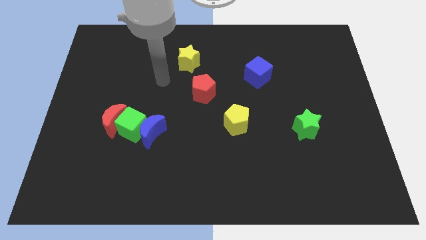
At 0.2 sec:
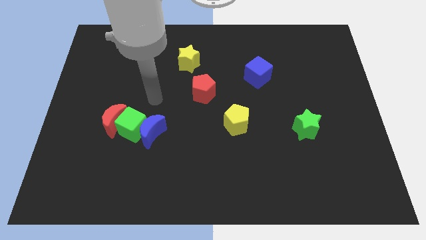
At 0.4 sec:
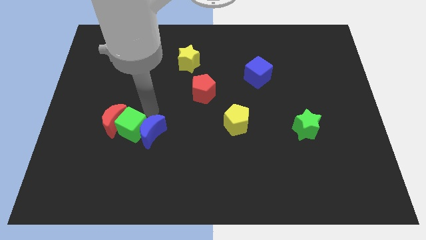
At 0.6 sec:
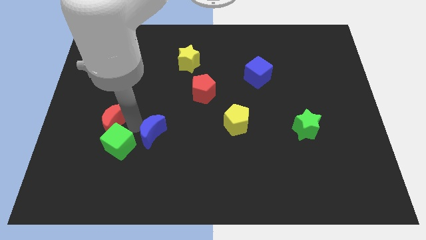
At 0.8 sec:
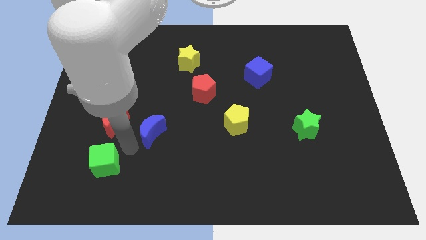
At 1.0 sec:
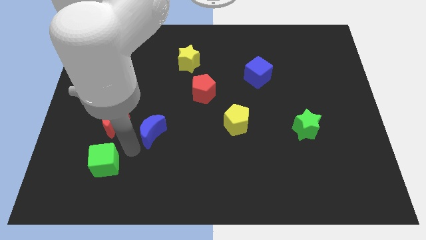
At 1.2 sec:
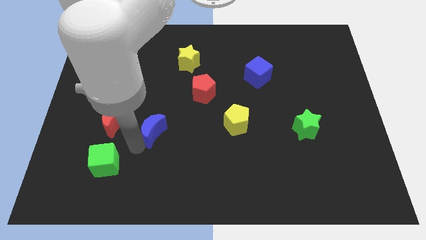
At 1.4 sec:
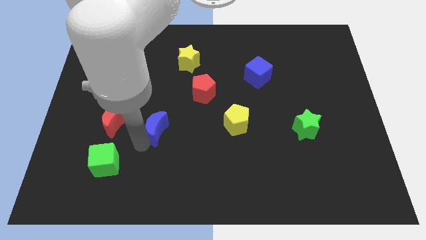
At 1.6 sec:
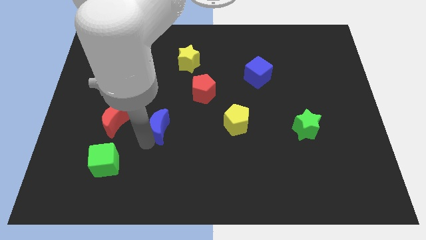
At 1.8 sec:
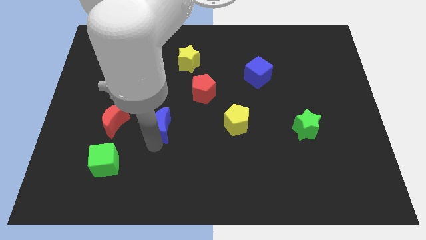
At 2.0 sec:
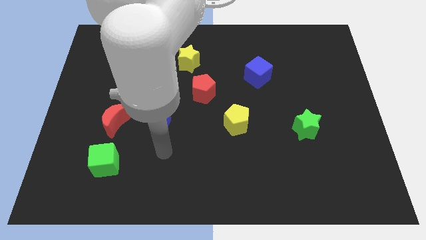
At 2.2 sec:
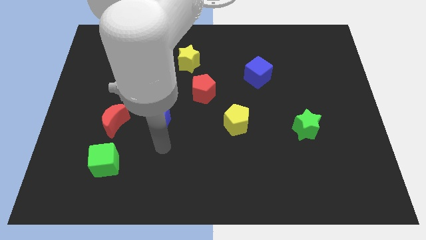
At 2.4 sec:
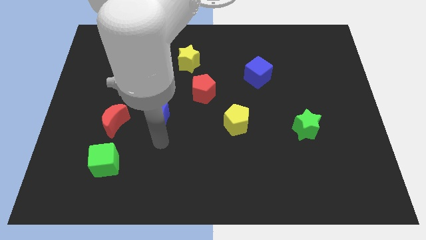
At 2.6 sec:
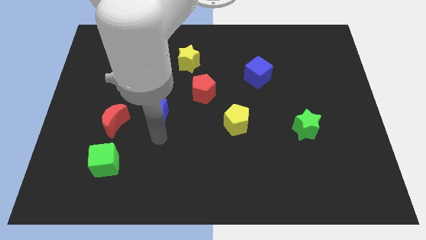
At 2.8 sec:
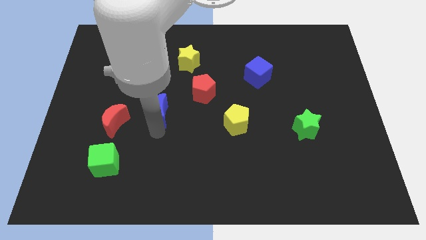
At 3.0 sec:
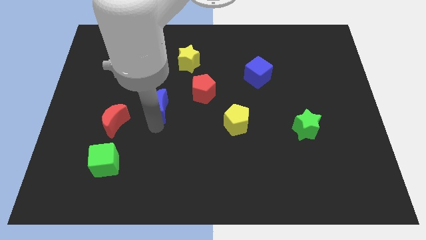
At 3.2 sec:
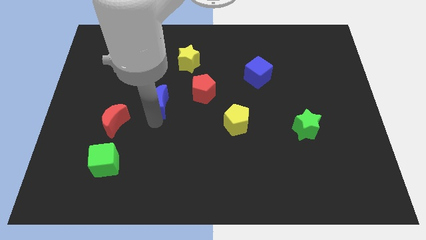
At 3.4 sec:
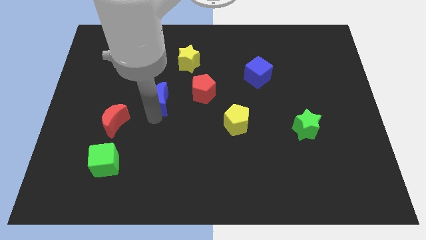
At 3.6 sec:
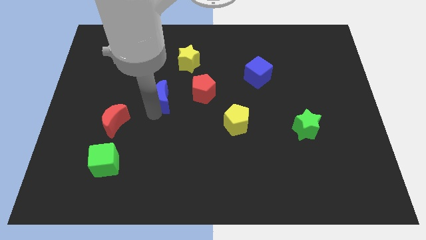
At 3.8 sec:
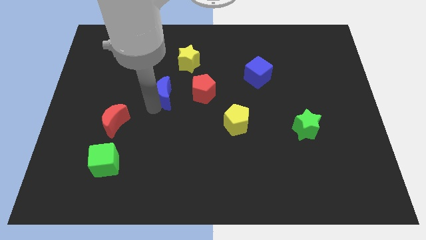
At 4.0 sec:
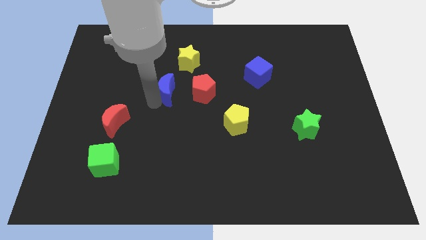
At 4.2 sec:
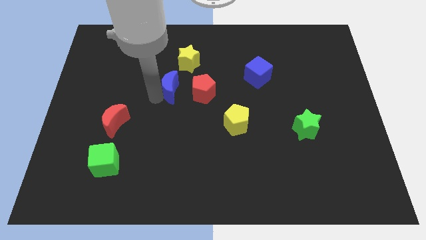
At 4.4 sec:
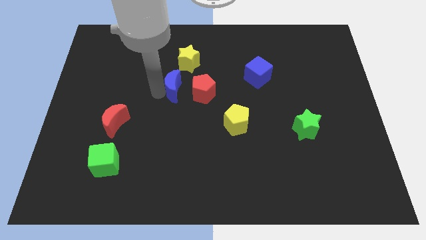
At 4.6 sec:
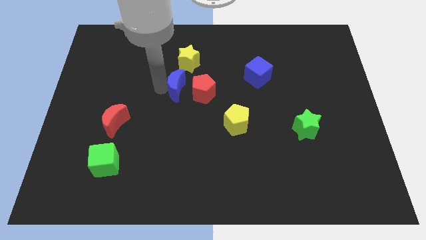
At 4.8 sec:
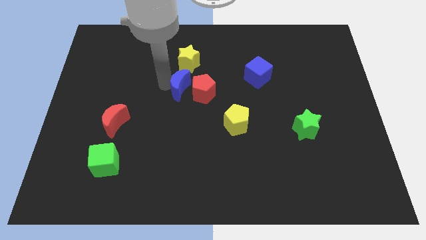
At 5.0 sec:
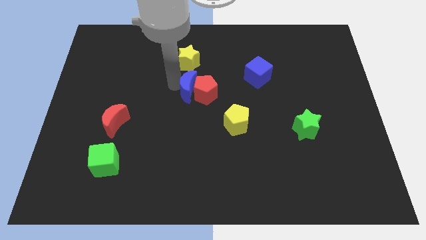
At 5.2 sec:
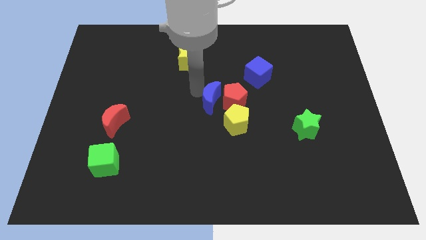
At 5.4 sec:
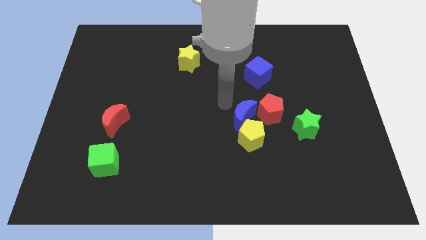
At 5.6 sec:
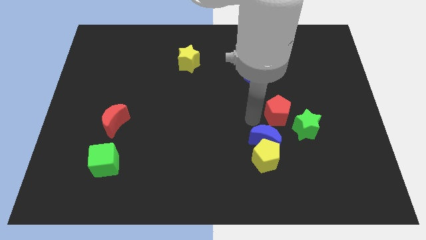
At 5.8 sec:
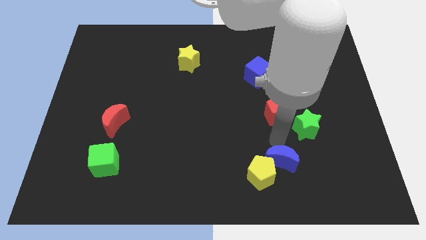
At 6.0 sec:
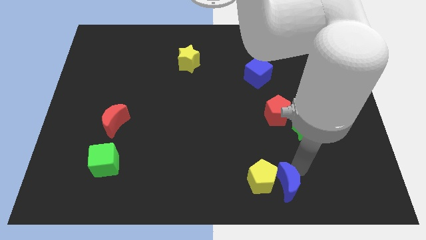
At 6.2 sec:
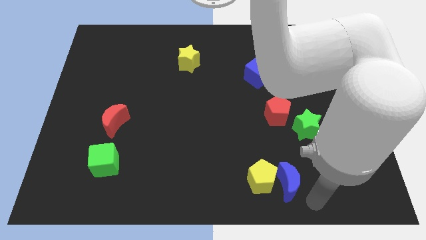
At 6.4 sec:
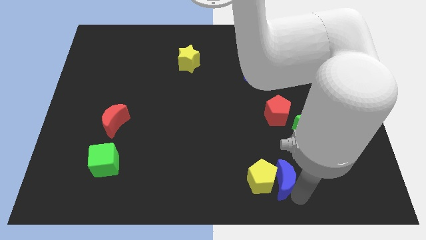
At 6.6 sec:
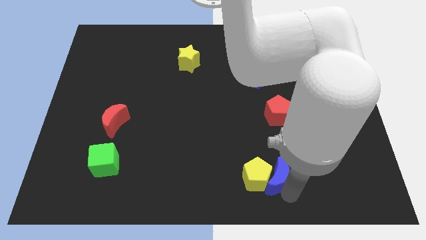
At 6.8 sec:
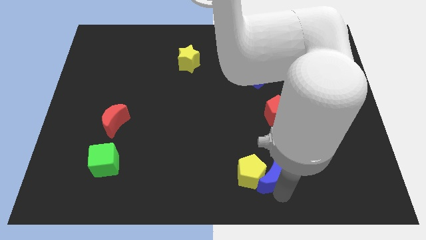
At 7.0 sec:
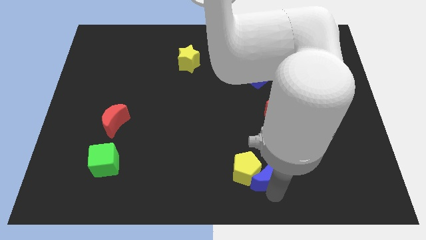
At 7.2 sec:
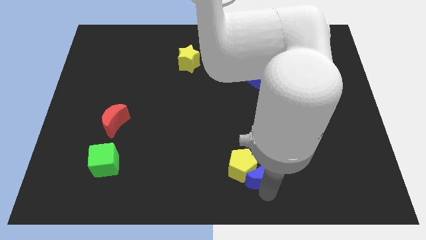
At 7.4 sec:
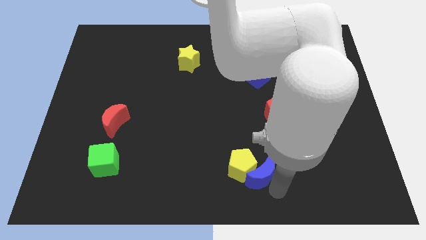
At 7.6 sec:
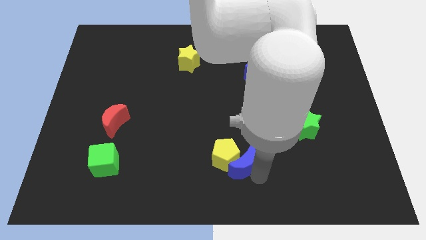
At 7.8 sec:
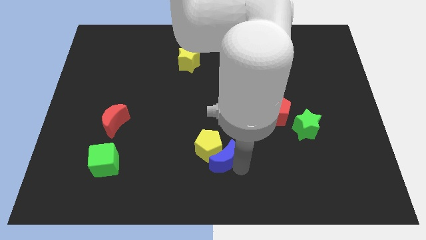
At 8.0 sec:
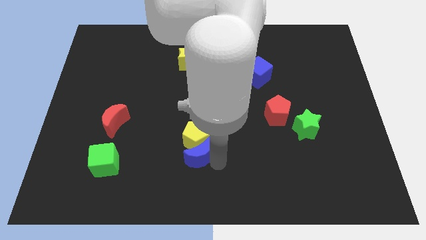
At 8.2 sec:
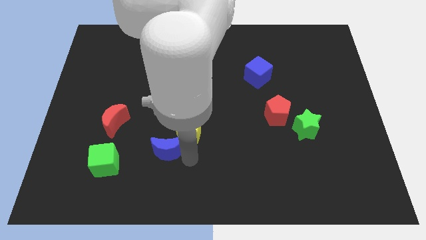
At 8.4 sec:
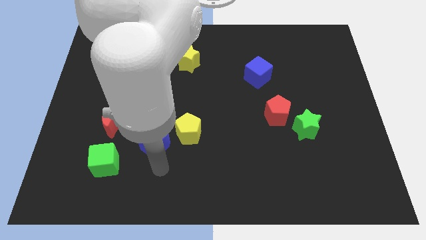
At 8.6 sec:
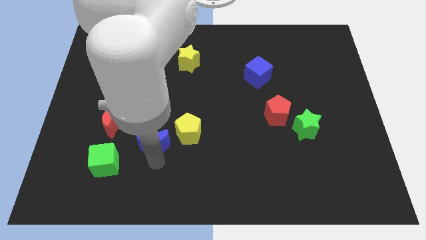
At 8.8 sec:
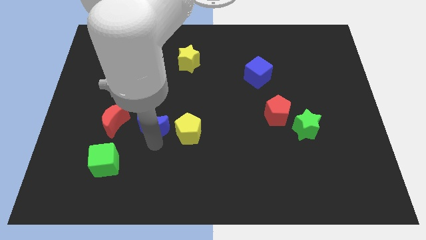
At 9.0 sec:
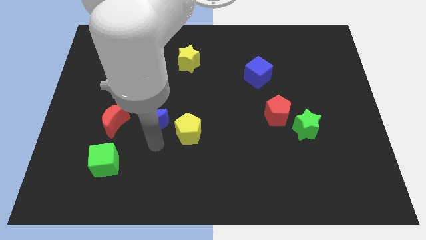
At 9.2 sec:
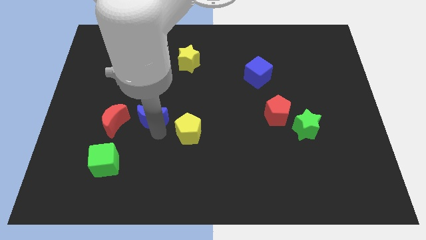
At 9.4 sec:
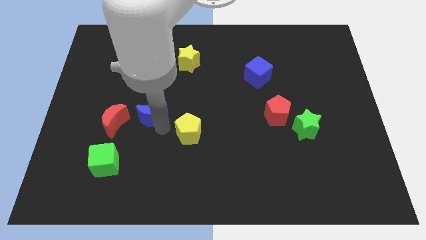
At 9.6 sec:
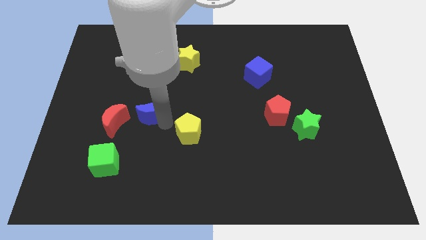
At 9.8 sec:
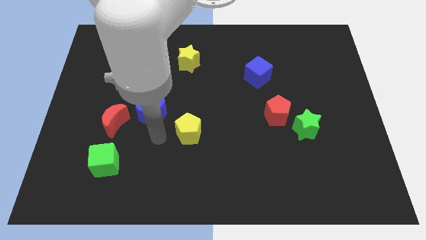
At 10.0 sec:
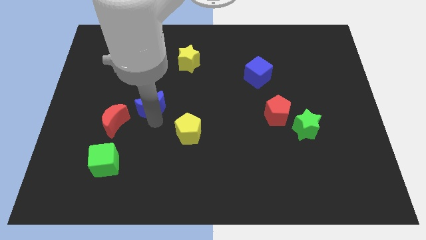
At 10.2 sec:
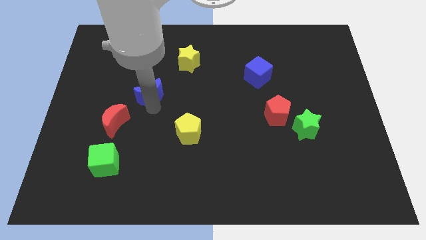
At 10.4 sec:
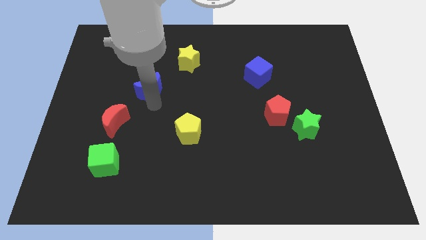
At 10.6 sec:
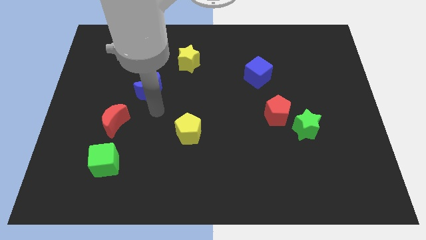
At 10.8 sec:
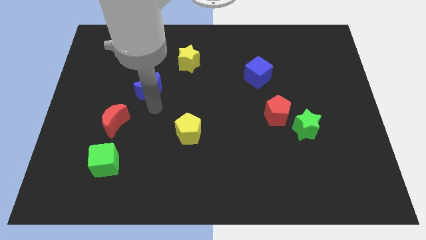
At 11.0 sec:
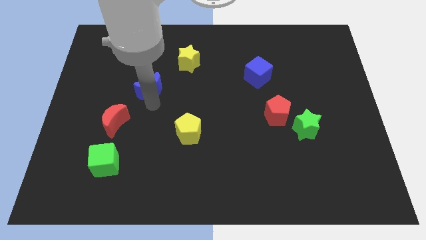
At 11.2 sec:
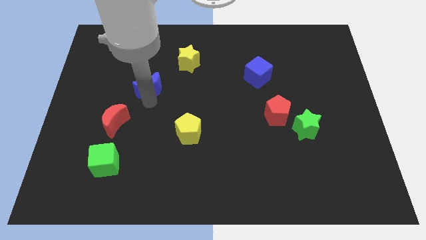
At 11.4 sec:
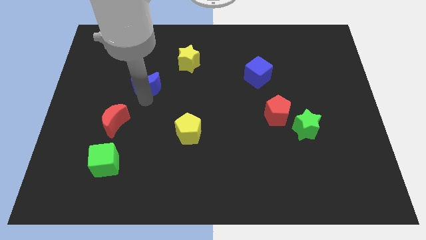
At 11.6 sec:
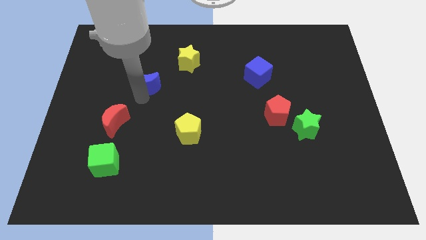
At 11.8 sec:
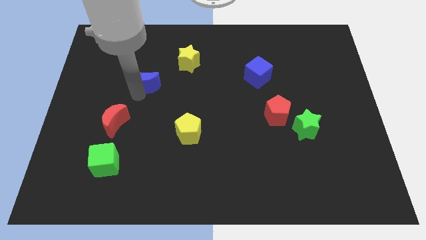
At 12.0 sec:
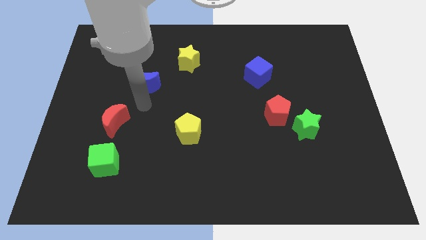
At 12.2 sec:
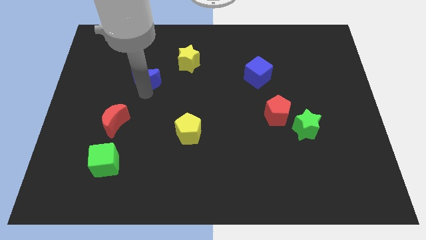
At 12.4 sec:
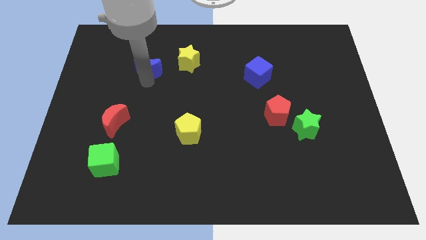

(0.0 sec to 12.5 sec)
move the blue moon to the left of the yellow star
